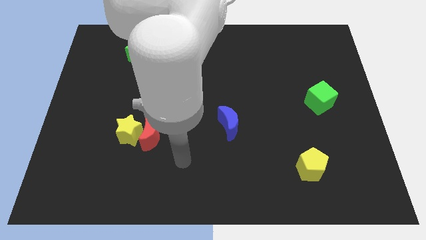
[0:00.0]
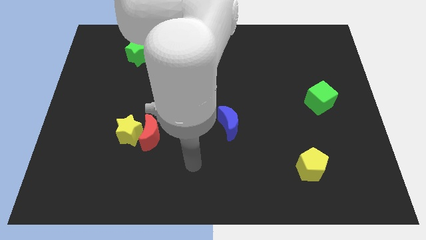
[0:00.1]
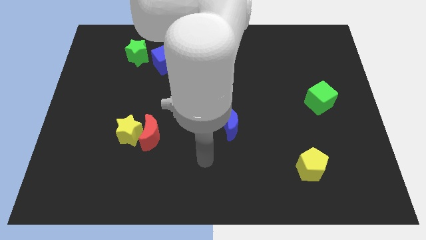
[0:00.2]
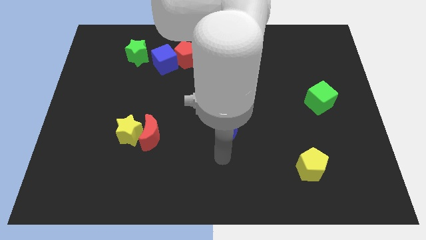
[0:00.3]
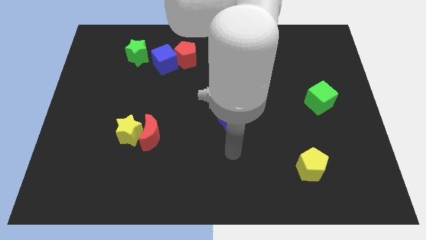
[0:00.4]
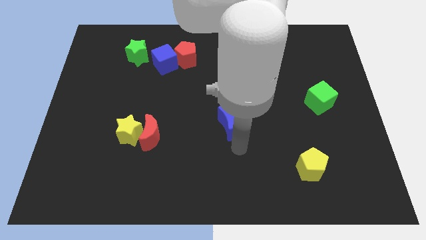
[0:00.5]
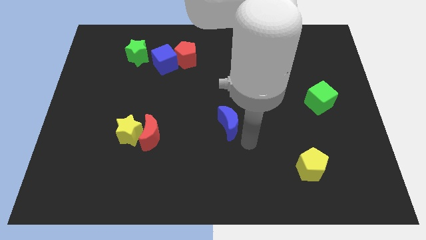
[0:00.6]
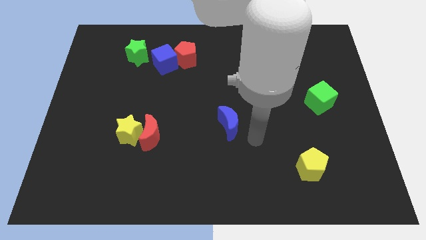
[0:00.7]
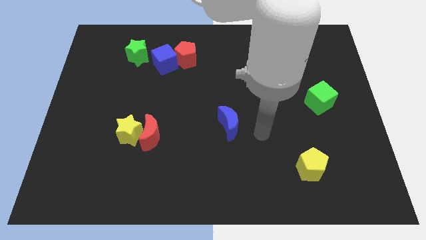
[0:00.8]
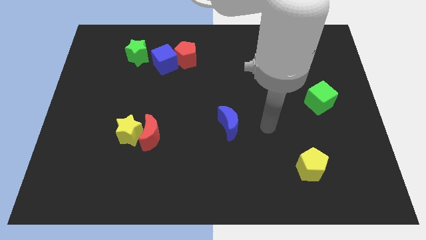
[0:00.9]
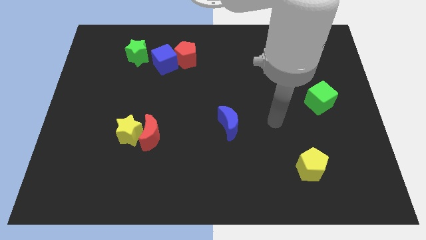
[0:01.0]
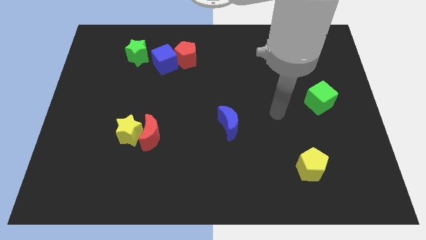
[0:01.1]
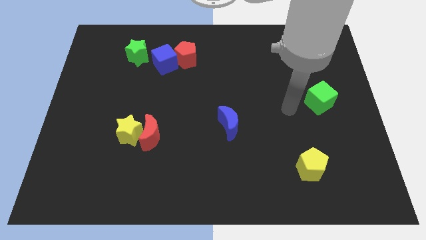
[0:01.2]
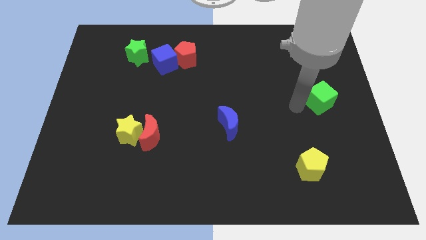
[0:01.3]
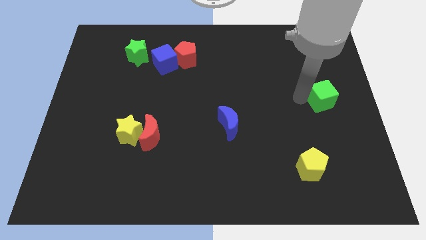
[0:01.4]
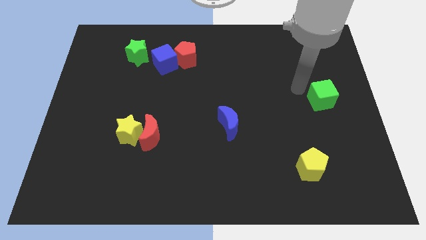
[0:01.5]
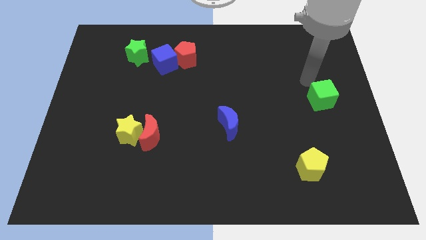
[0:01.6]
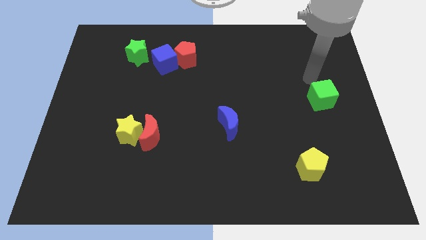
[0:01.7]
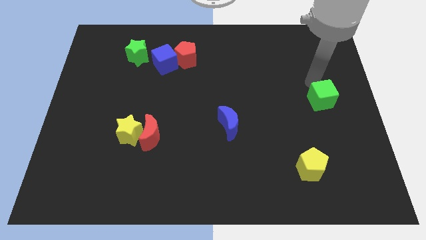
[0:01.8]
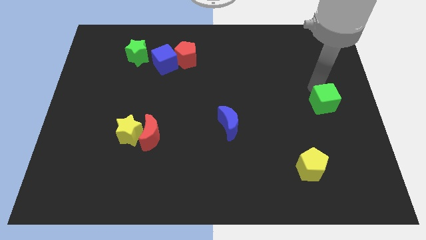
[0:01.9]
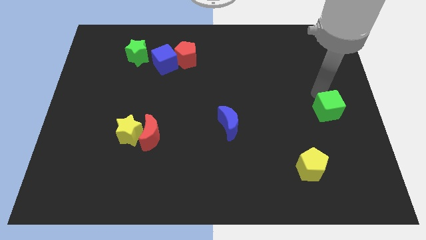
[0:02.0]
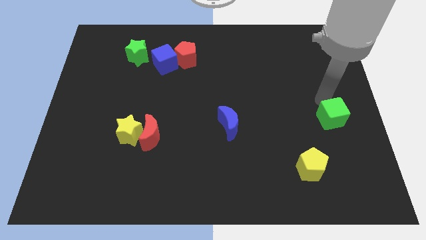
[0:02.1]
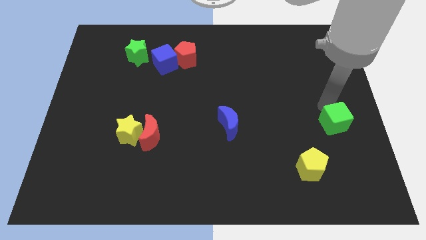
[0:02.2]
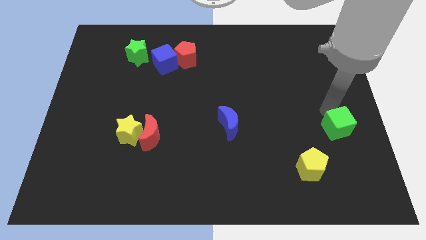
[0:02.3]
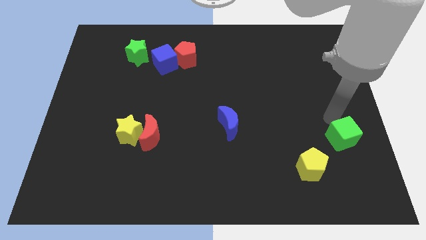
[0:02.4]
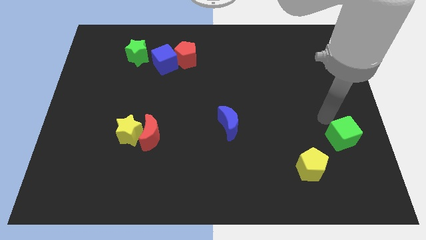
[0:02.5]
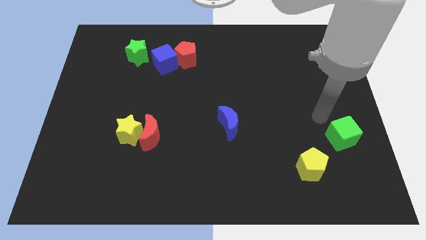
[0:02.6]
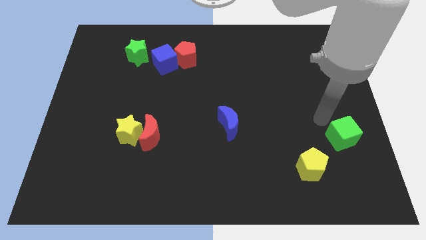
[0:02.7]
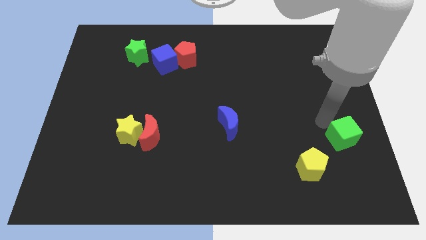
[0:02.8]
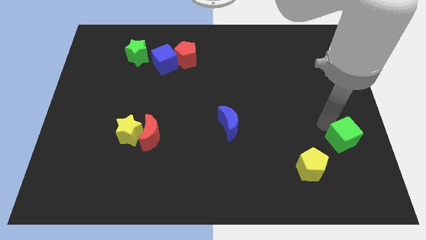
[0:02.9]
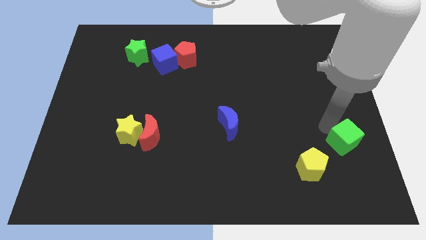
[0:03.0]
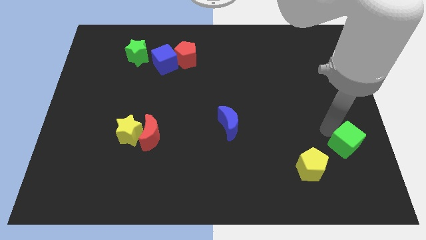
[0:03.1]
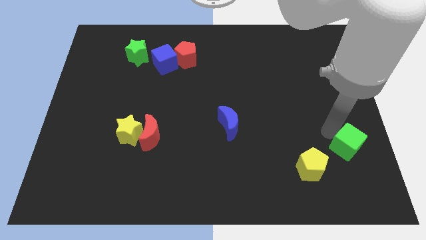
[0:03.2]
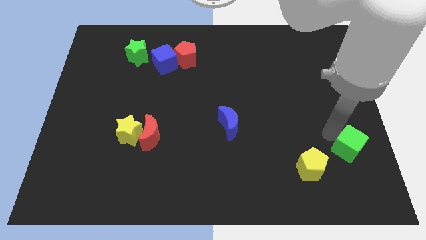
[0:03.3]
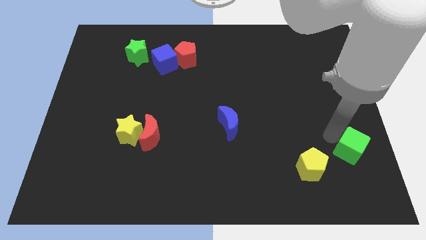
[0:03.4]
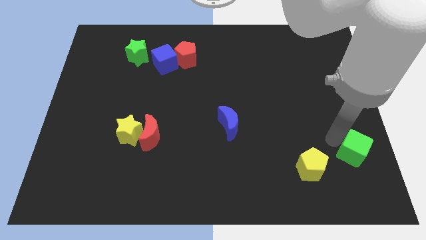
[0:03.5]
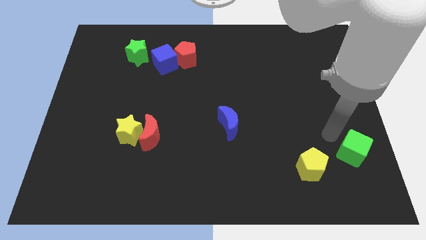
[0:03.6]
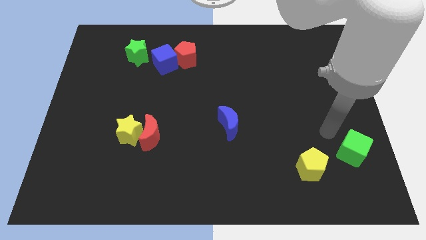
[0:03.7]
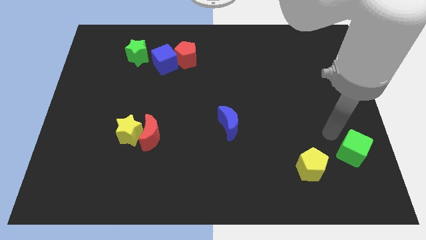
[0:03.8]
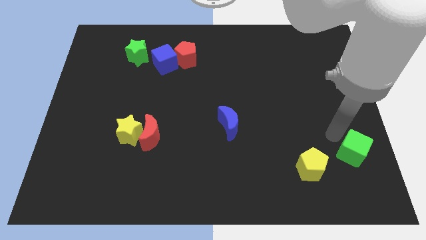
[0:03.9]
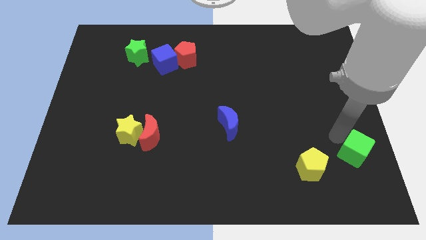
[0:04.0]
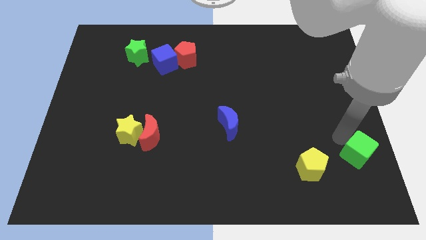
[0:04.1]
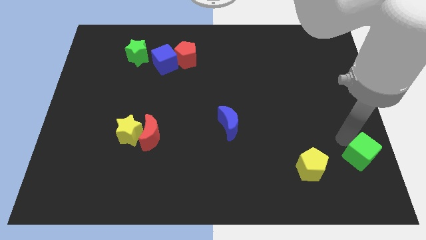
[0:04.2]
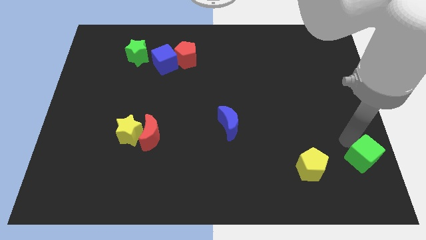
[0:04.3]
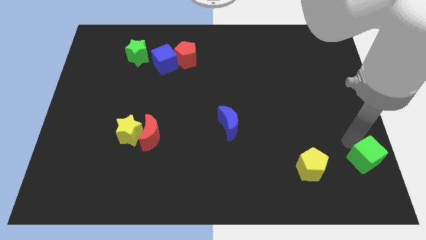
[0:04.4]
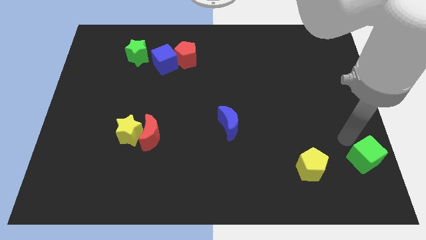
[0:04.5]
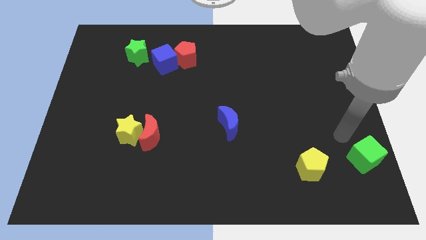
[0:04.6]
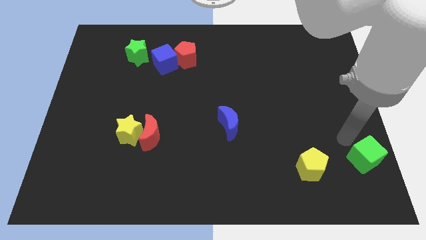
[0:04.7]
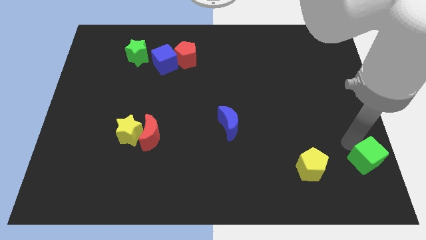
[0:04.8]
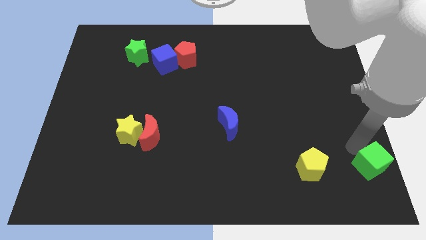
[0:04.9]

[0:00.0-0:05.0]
move the green cube to the lower right corner

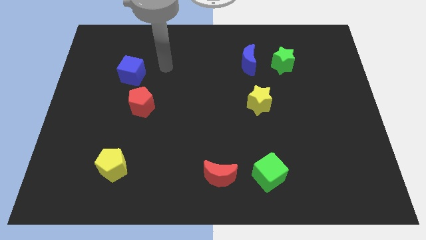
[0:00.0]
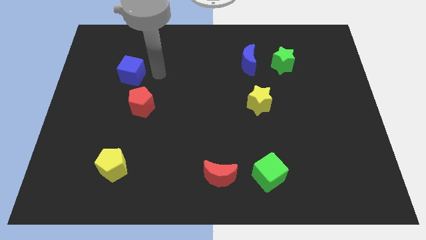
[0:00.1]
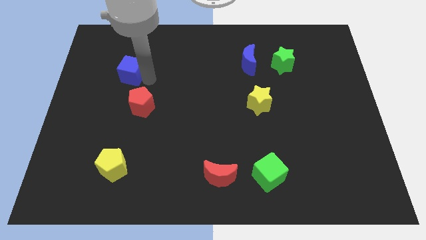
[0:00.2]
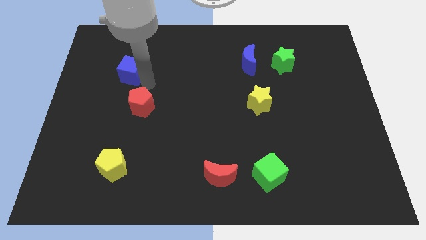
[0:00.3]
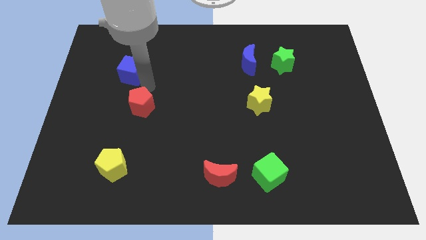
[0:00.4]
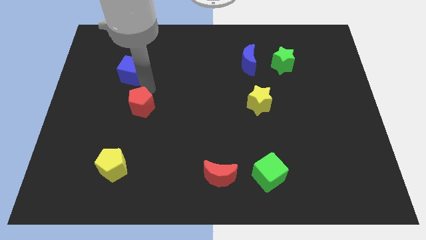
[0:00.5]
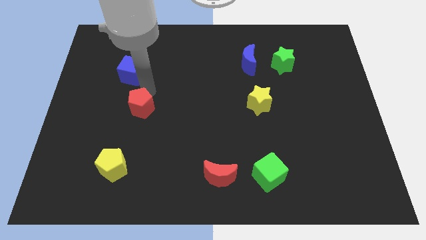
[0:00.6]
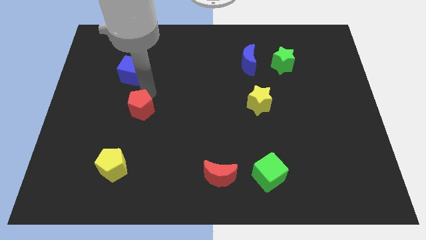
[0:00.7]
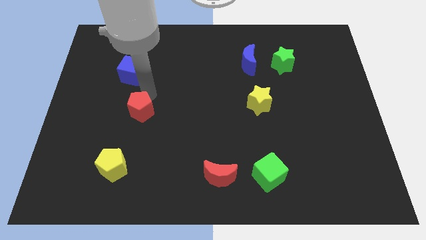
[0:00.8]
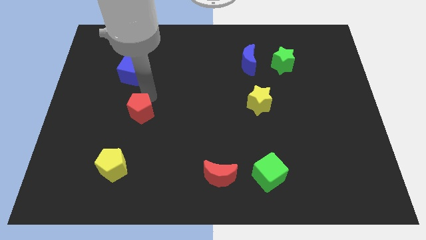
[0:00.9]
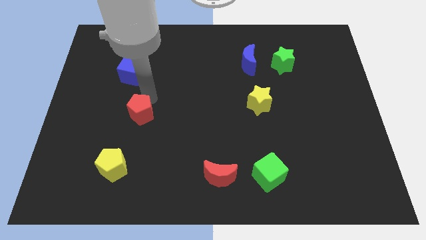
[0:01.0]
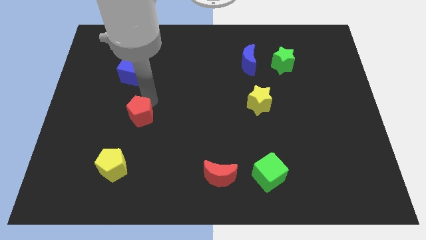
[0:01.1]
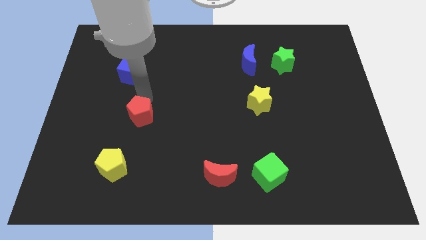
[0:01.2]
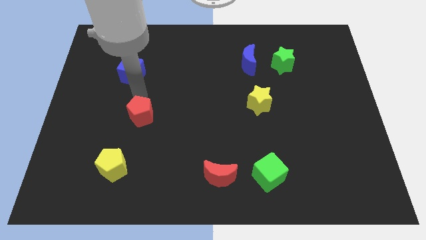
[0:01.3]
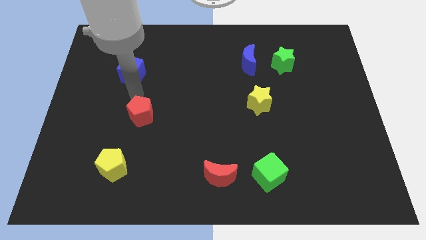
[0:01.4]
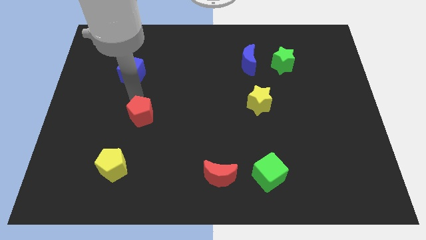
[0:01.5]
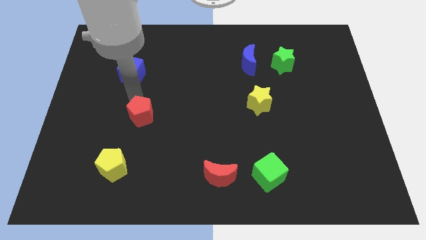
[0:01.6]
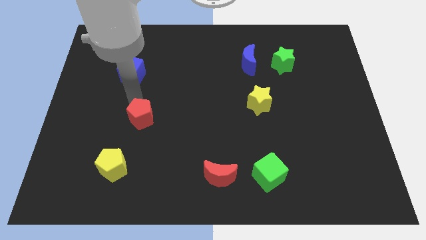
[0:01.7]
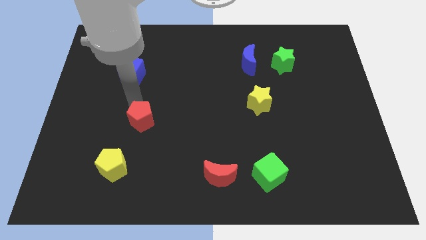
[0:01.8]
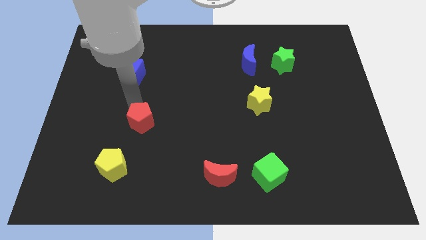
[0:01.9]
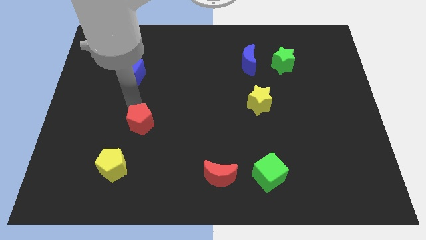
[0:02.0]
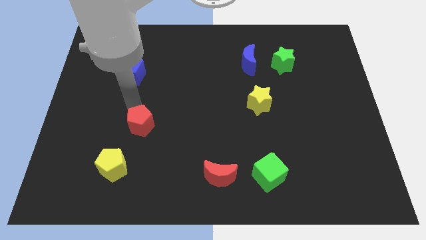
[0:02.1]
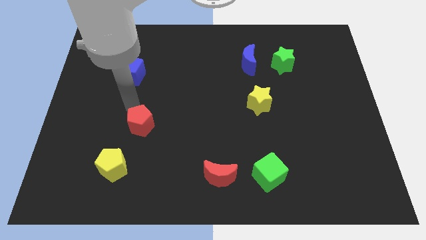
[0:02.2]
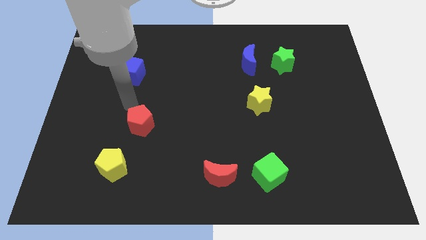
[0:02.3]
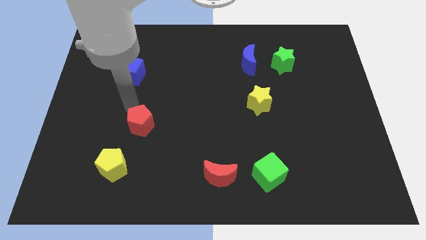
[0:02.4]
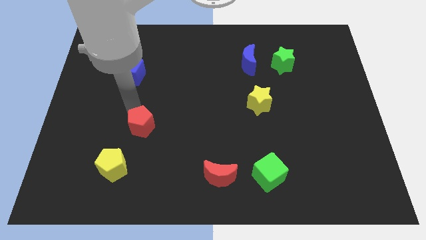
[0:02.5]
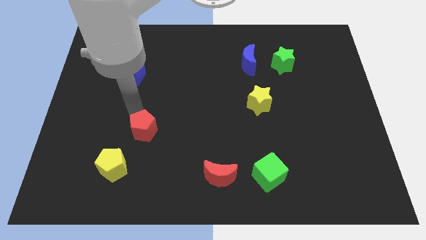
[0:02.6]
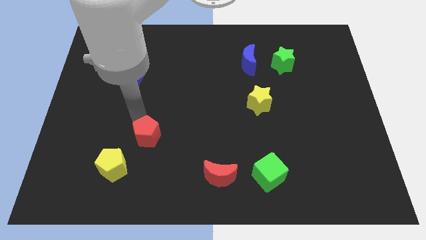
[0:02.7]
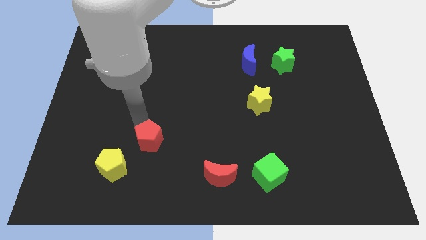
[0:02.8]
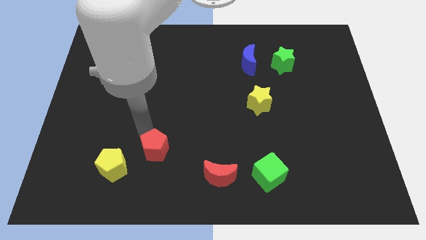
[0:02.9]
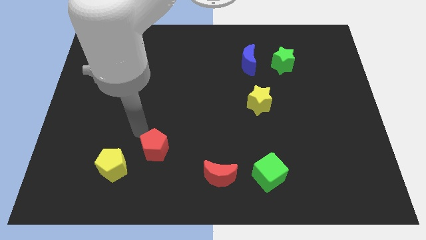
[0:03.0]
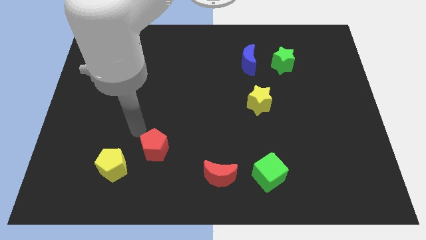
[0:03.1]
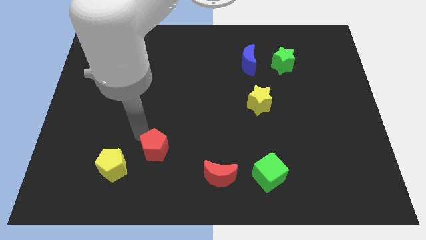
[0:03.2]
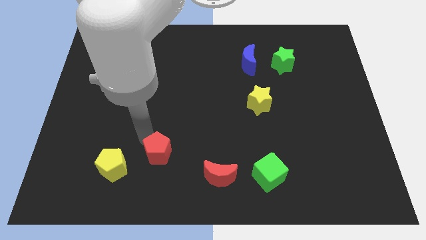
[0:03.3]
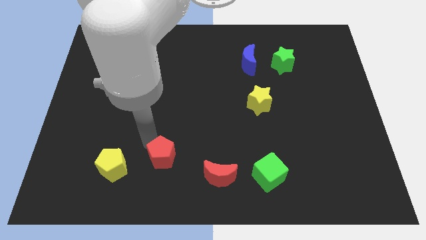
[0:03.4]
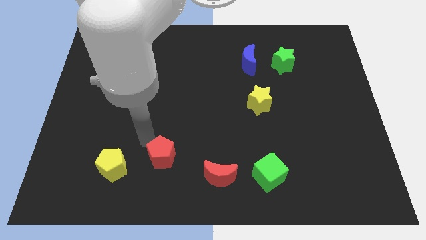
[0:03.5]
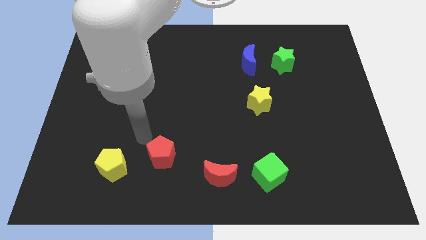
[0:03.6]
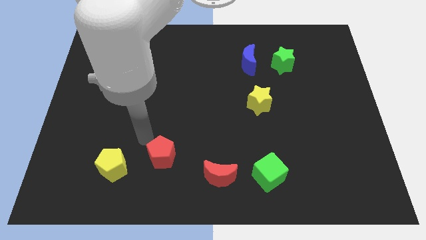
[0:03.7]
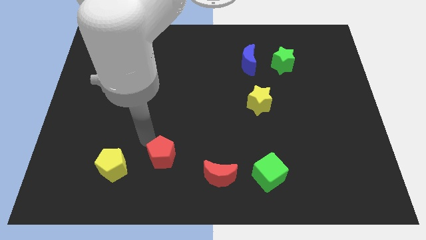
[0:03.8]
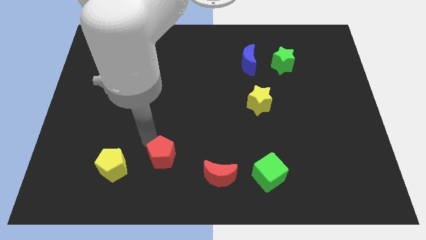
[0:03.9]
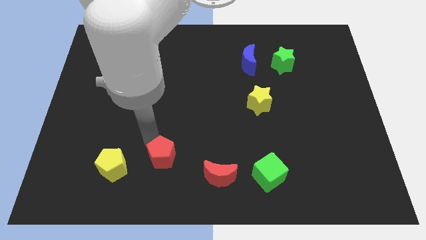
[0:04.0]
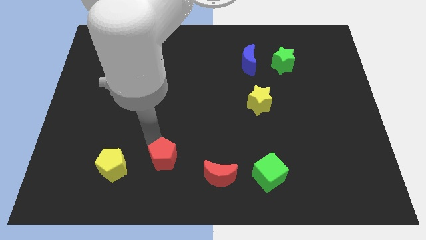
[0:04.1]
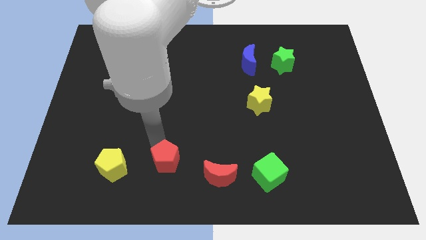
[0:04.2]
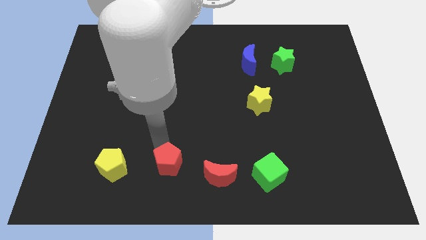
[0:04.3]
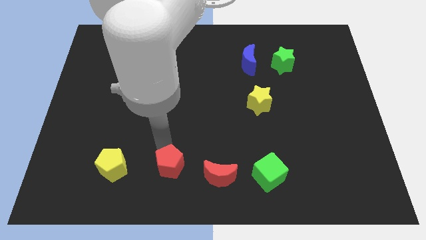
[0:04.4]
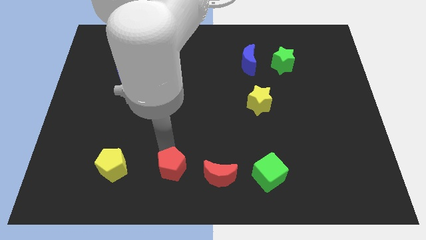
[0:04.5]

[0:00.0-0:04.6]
move the red pentagon to the bottom
